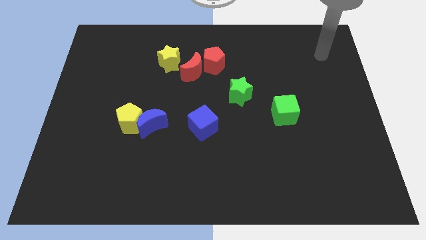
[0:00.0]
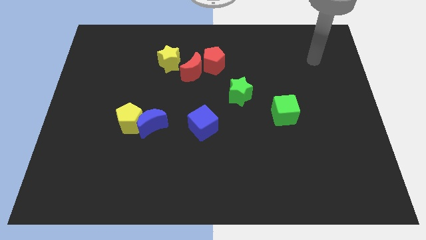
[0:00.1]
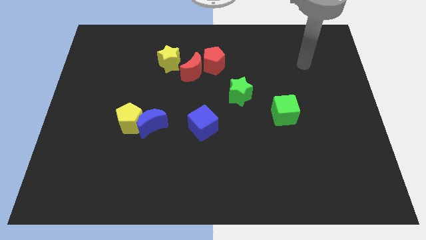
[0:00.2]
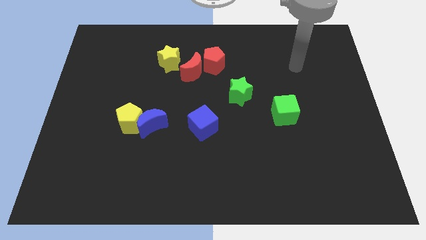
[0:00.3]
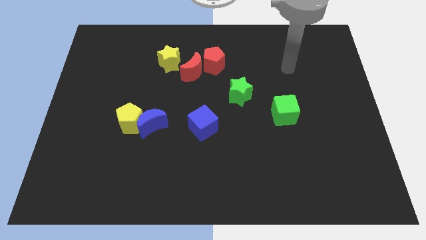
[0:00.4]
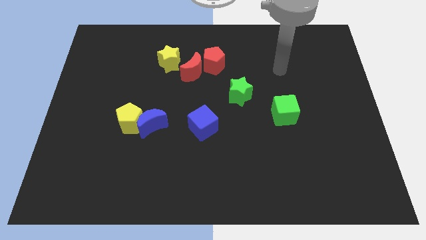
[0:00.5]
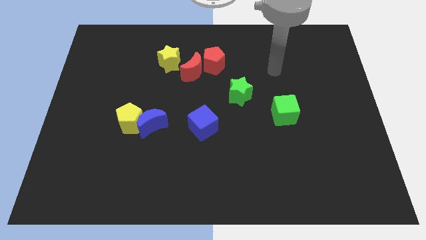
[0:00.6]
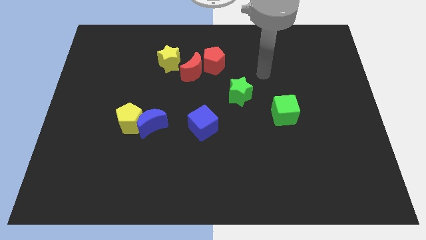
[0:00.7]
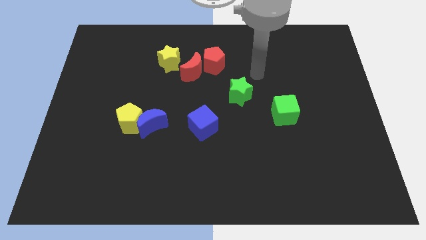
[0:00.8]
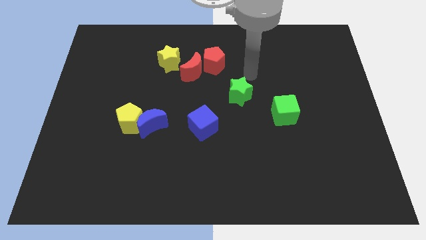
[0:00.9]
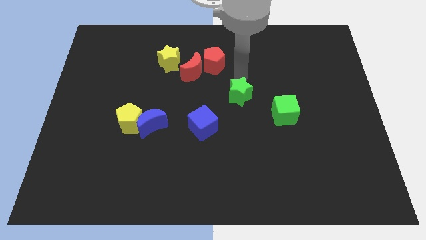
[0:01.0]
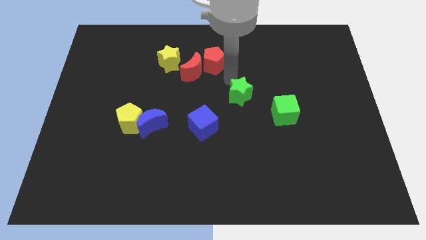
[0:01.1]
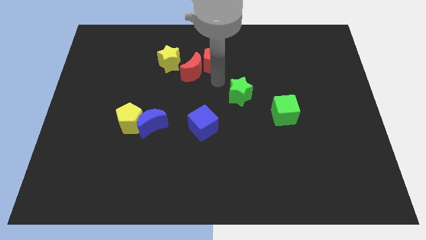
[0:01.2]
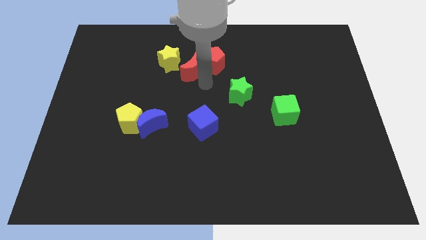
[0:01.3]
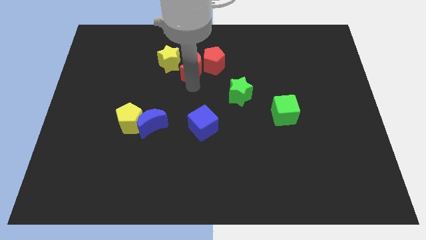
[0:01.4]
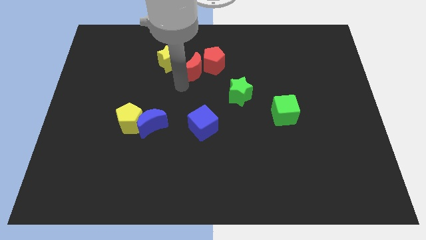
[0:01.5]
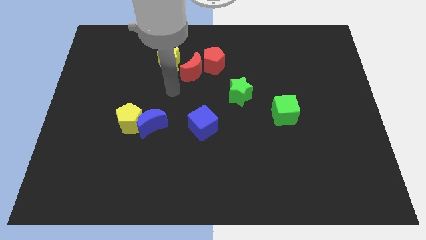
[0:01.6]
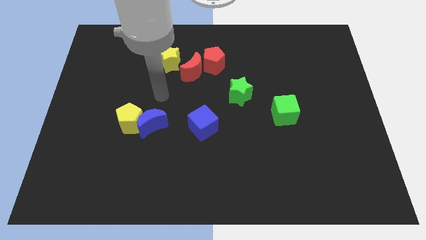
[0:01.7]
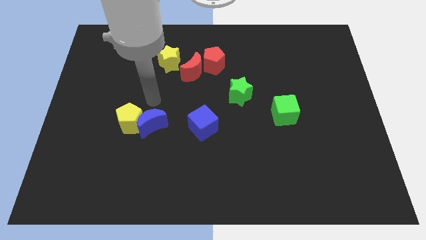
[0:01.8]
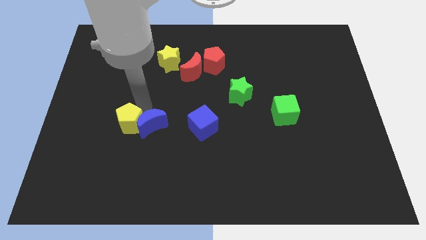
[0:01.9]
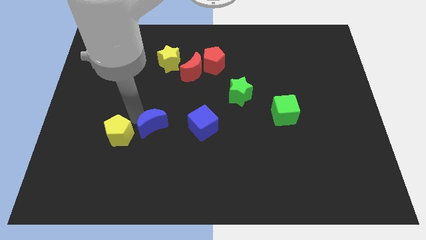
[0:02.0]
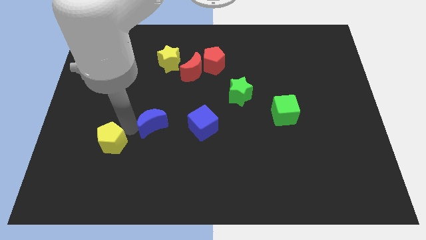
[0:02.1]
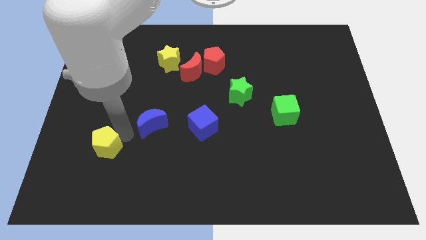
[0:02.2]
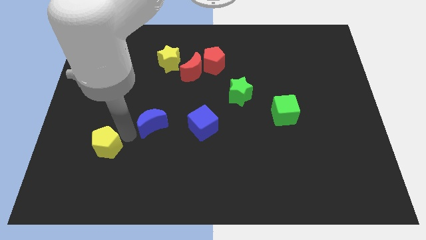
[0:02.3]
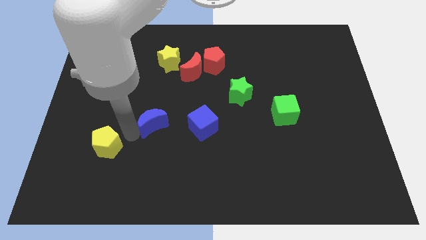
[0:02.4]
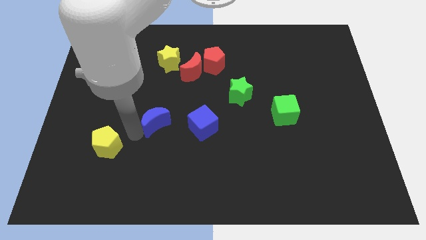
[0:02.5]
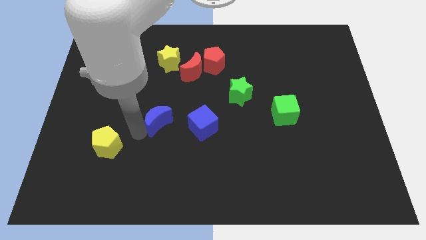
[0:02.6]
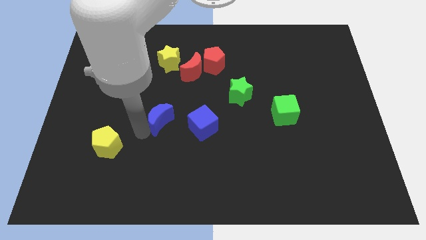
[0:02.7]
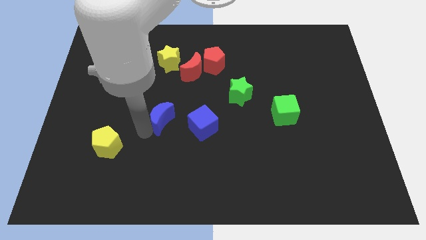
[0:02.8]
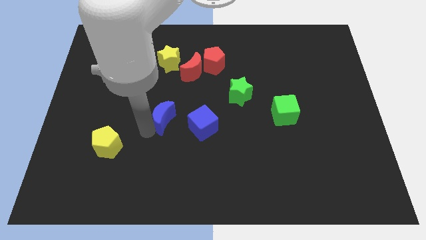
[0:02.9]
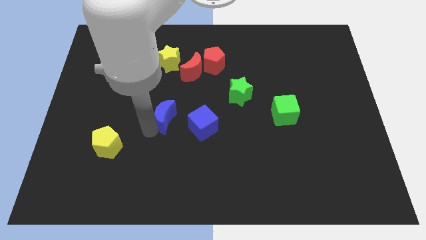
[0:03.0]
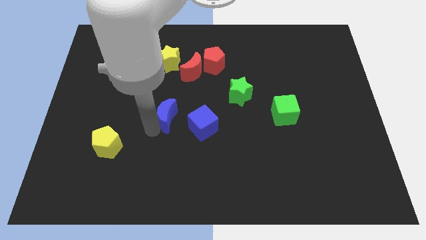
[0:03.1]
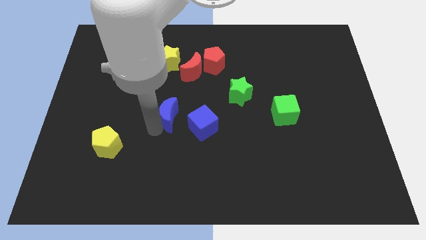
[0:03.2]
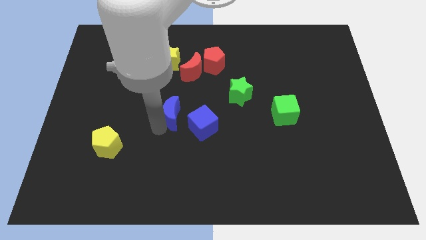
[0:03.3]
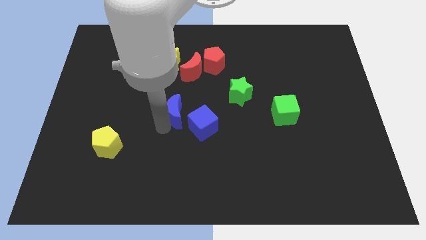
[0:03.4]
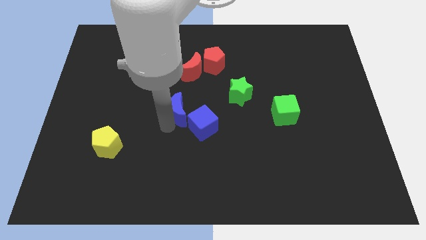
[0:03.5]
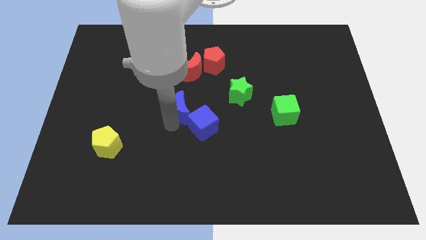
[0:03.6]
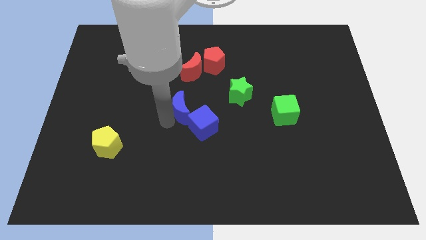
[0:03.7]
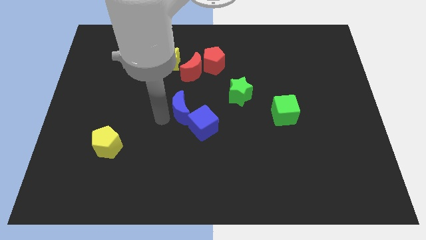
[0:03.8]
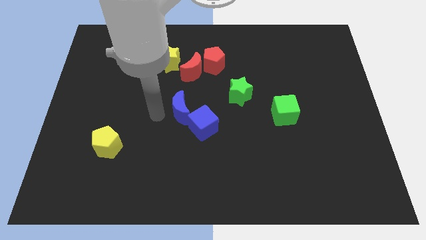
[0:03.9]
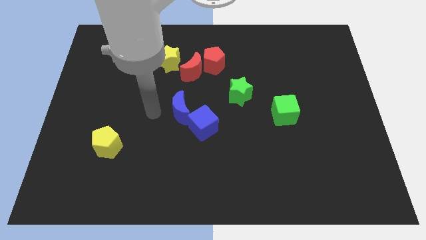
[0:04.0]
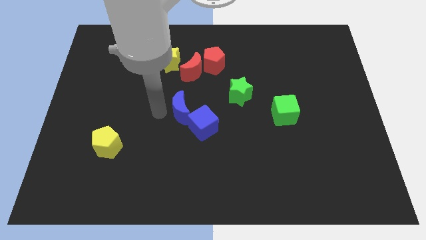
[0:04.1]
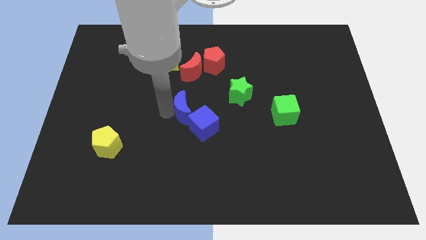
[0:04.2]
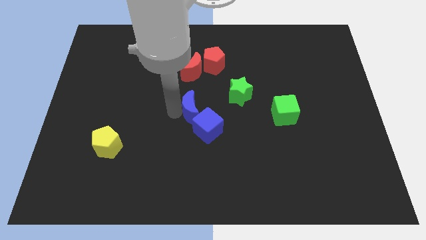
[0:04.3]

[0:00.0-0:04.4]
push the blue moon a little to the right

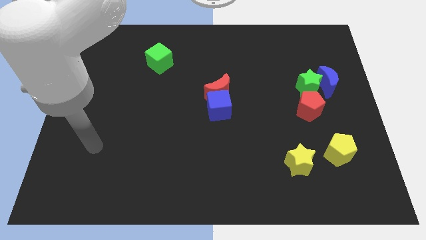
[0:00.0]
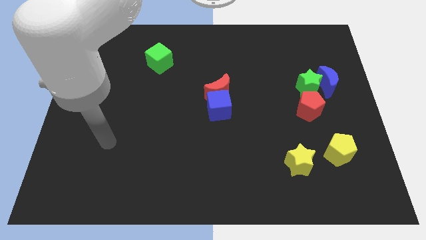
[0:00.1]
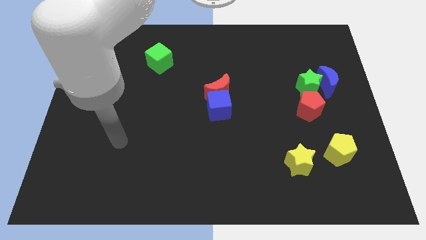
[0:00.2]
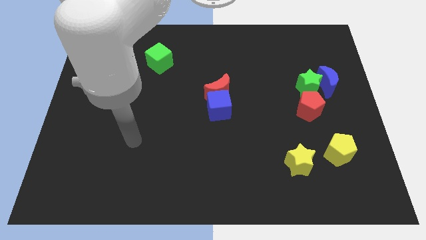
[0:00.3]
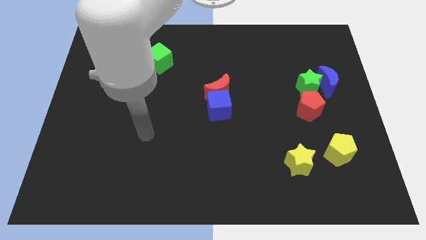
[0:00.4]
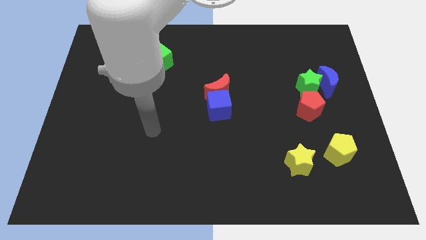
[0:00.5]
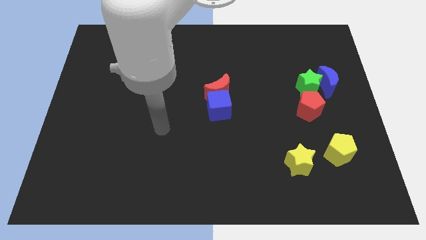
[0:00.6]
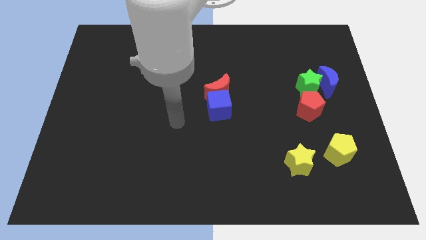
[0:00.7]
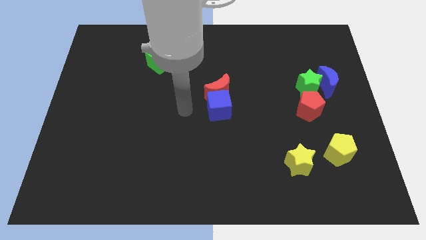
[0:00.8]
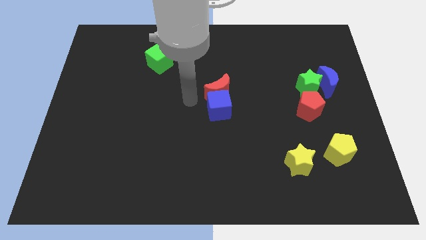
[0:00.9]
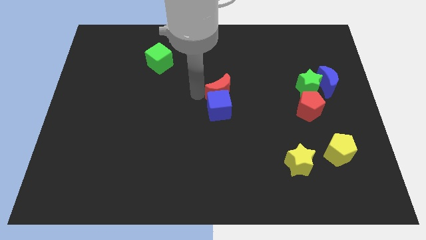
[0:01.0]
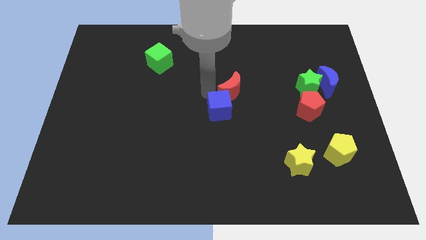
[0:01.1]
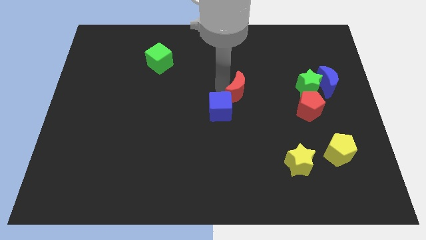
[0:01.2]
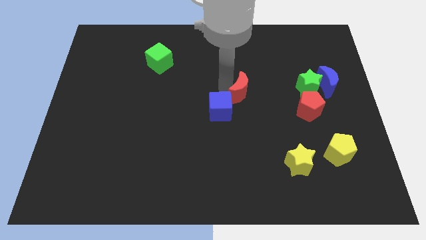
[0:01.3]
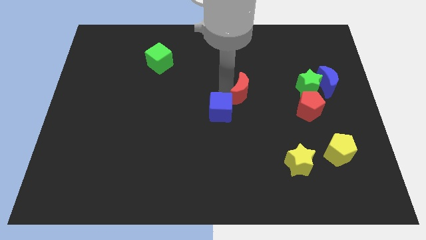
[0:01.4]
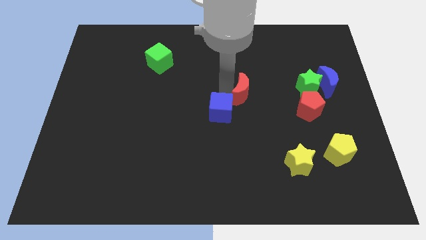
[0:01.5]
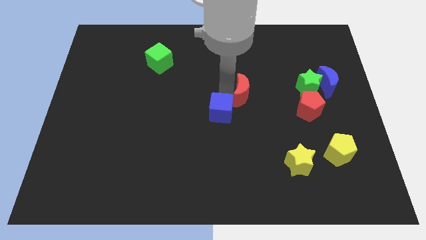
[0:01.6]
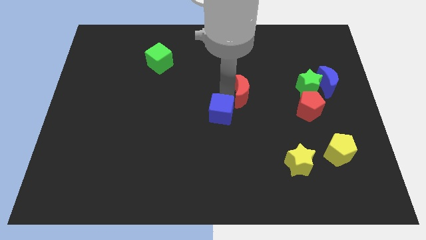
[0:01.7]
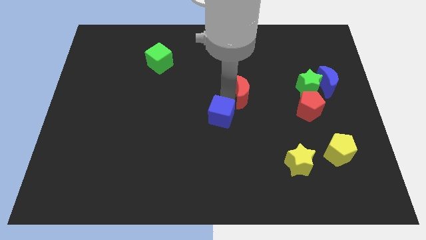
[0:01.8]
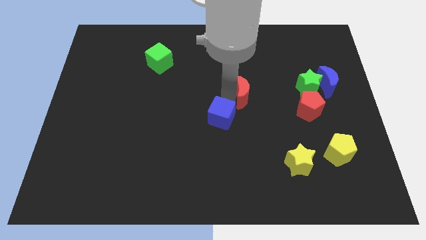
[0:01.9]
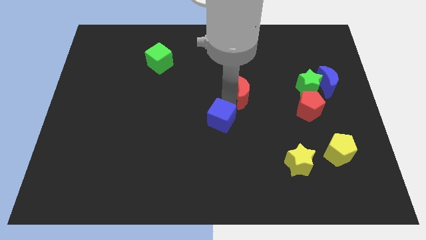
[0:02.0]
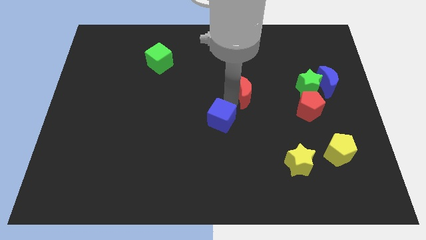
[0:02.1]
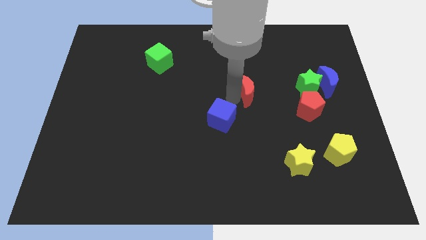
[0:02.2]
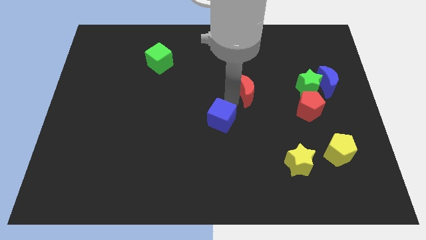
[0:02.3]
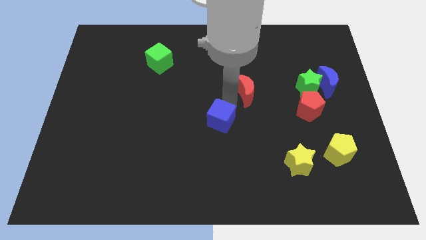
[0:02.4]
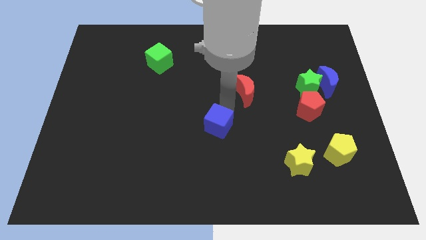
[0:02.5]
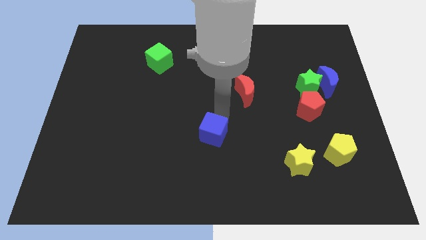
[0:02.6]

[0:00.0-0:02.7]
slide the blue cube down a bit

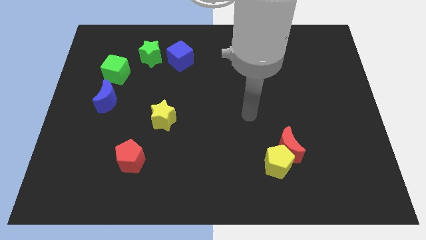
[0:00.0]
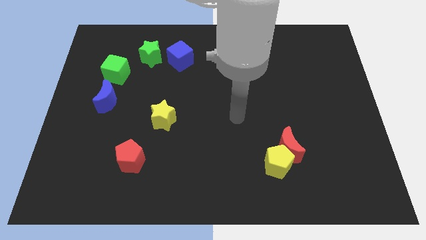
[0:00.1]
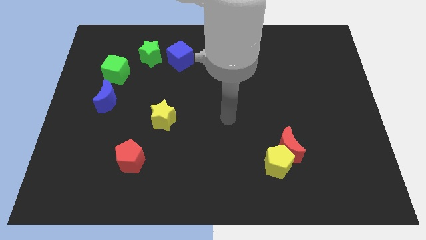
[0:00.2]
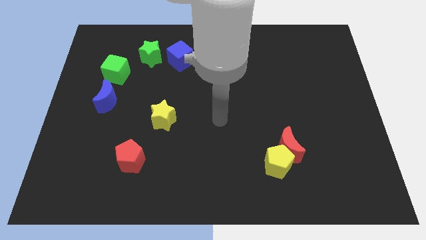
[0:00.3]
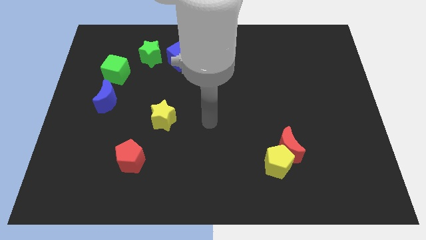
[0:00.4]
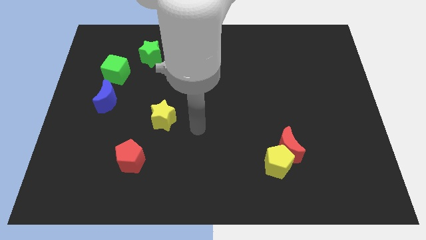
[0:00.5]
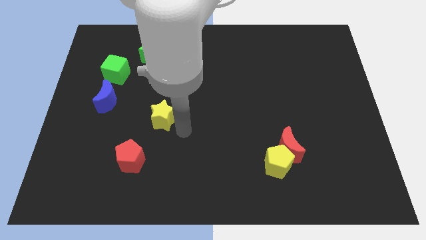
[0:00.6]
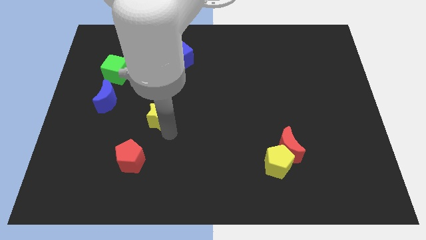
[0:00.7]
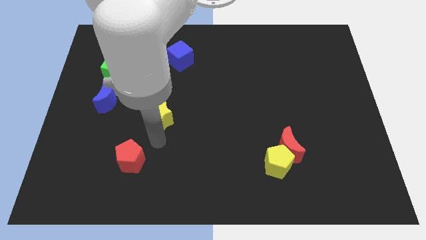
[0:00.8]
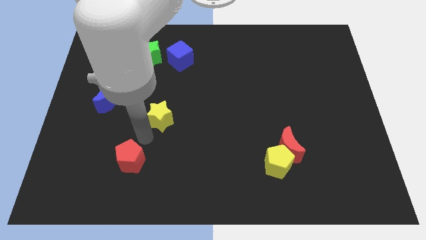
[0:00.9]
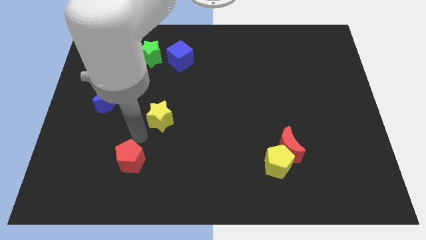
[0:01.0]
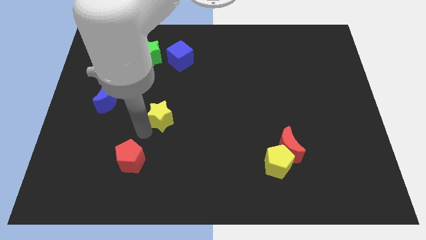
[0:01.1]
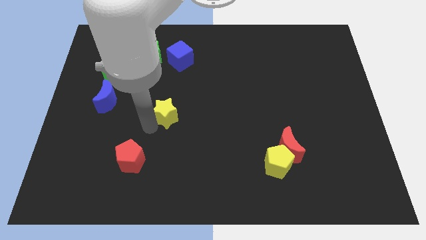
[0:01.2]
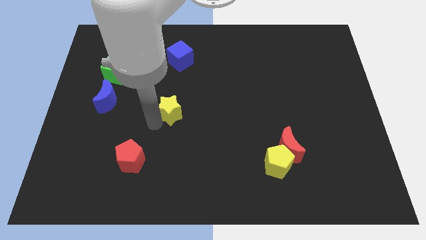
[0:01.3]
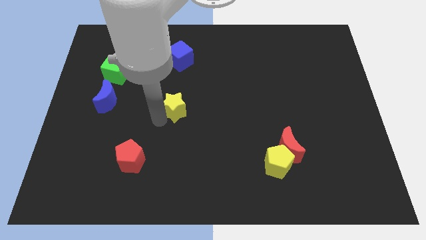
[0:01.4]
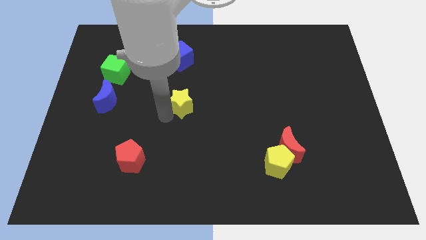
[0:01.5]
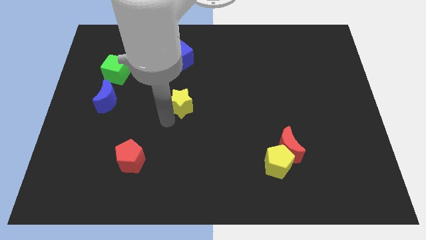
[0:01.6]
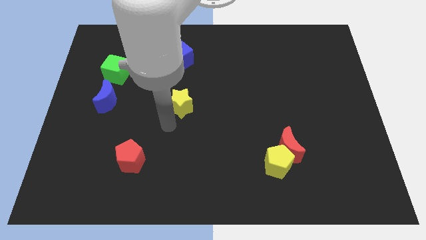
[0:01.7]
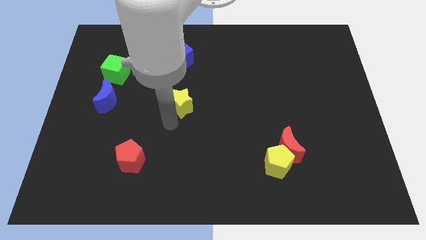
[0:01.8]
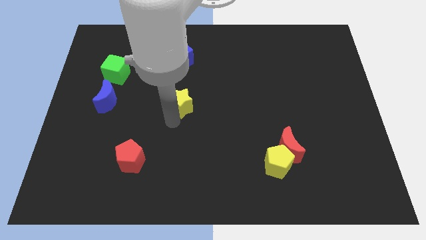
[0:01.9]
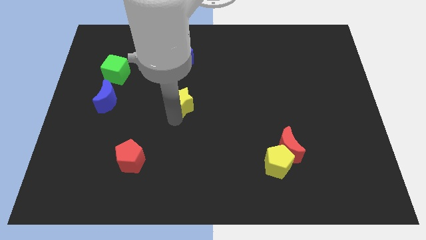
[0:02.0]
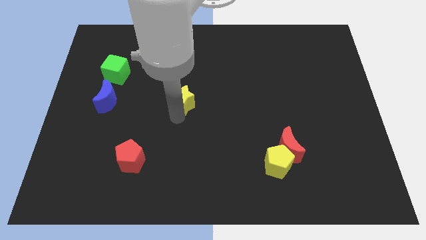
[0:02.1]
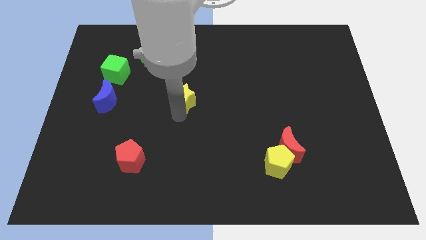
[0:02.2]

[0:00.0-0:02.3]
move the yellow star somewhat up and to the right diagonally
